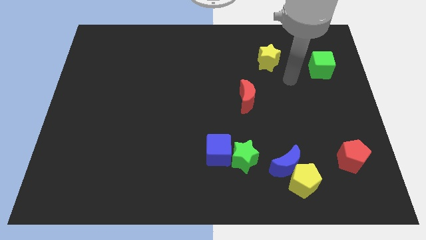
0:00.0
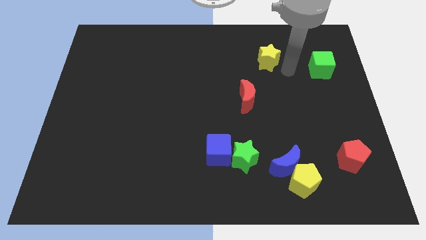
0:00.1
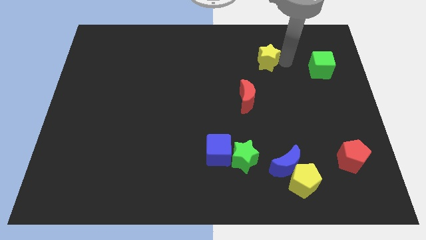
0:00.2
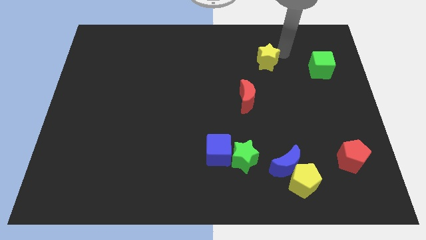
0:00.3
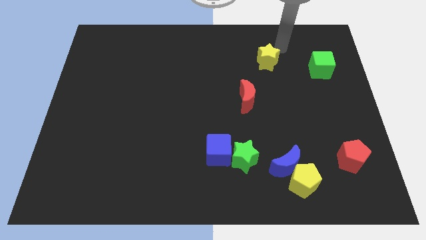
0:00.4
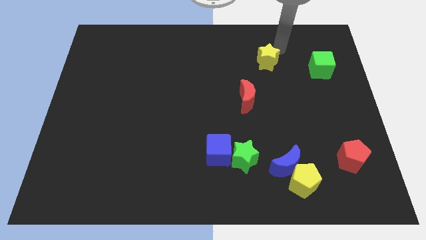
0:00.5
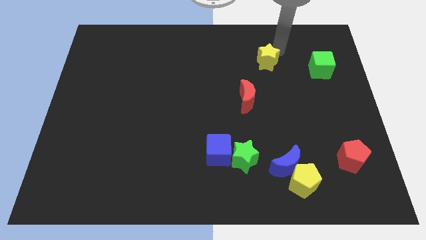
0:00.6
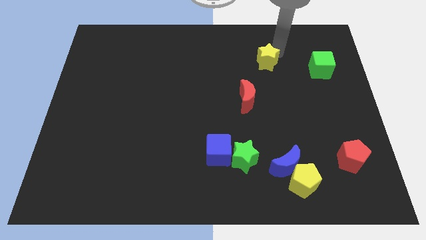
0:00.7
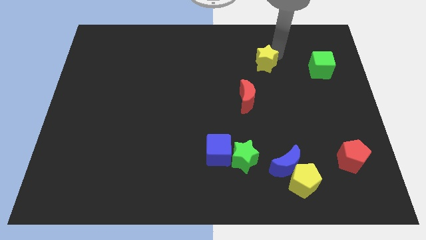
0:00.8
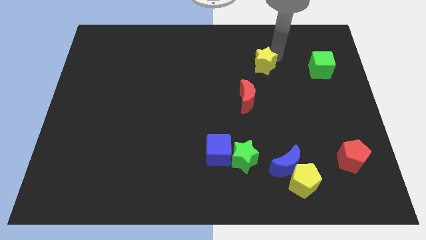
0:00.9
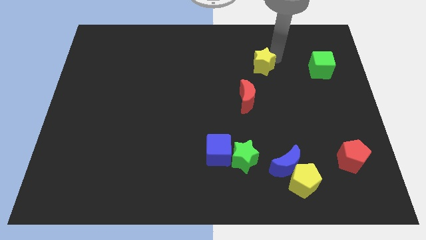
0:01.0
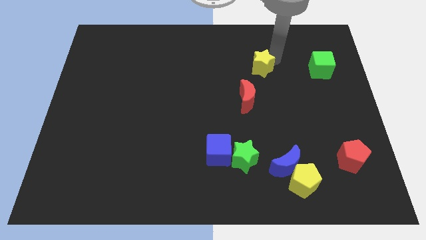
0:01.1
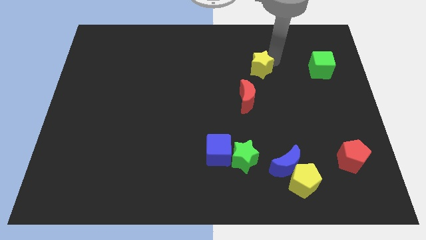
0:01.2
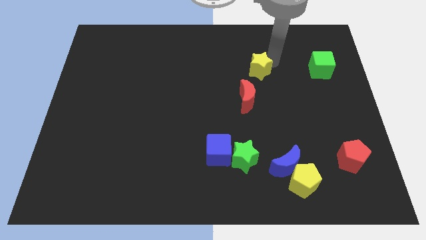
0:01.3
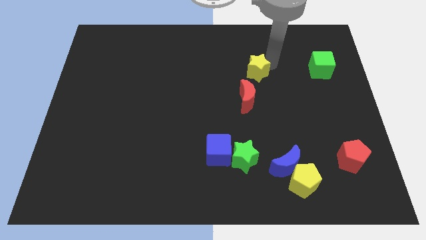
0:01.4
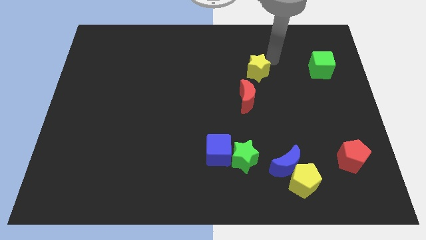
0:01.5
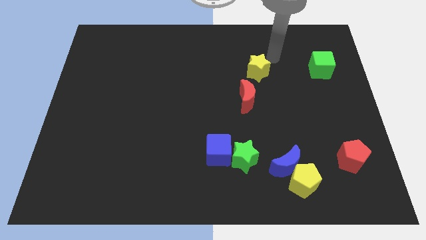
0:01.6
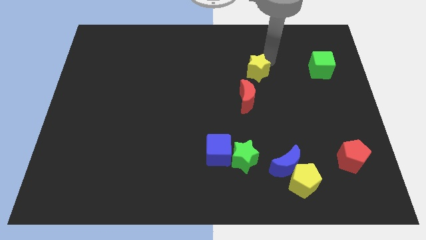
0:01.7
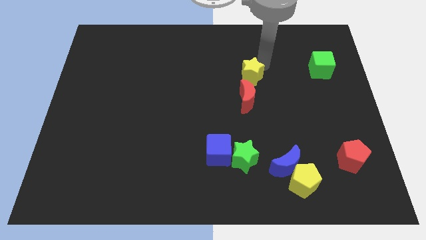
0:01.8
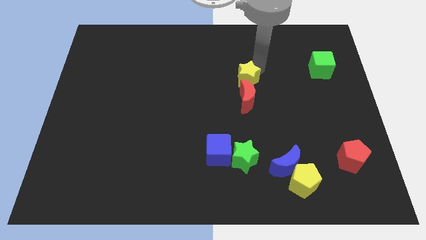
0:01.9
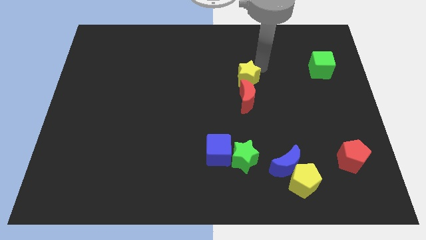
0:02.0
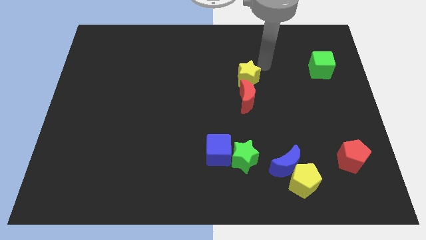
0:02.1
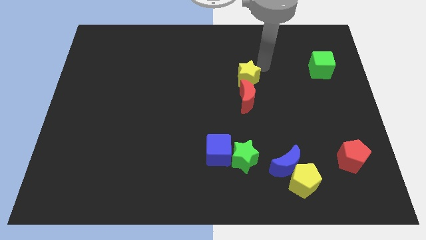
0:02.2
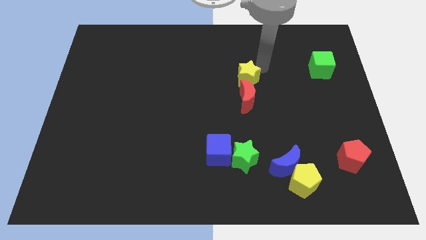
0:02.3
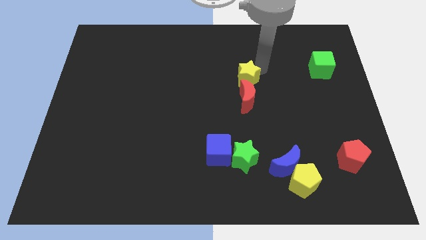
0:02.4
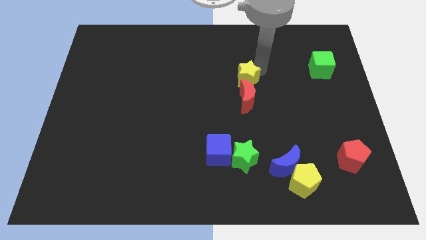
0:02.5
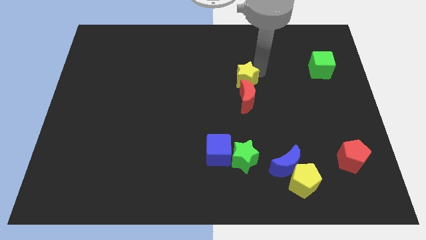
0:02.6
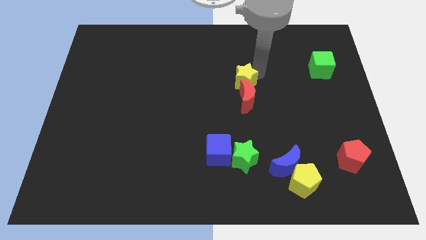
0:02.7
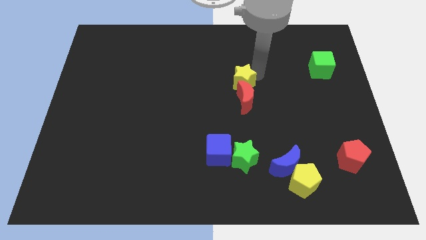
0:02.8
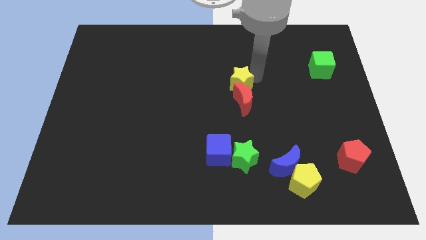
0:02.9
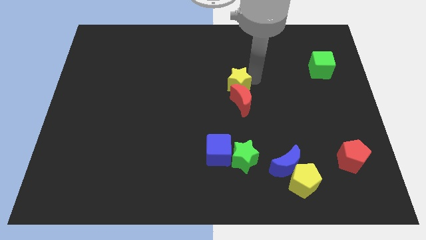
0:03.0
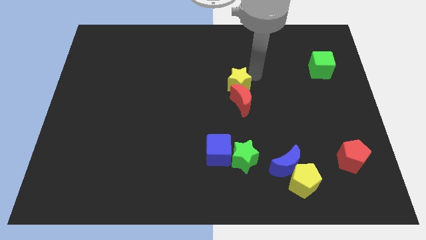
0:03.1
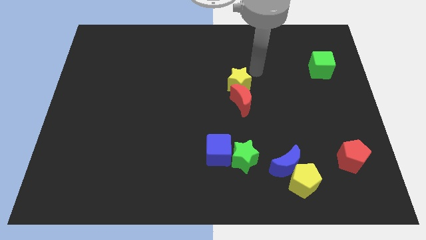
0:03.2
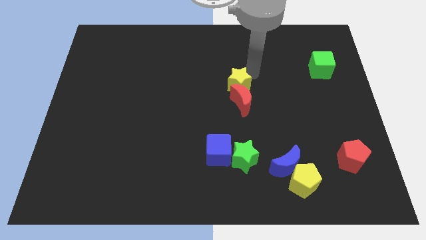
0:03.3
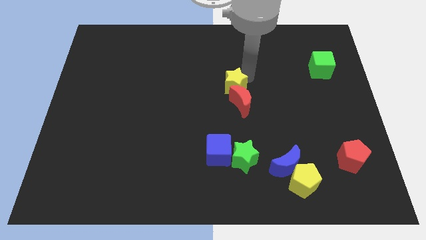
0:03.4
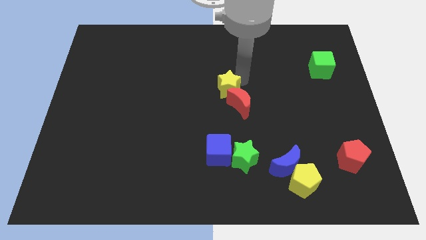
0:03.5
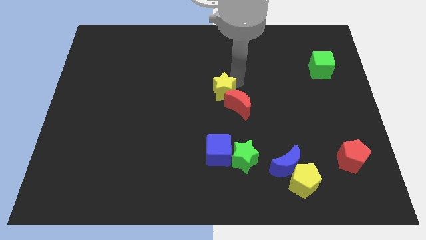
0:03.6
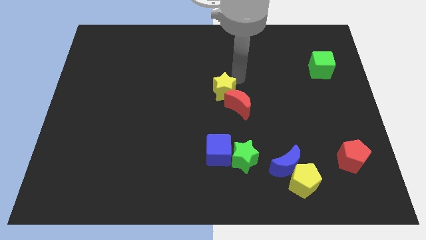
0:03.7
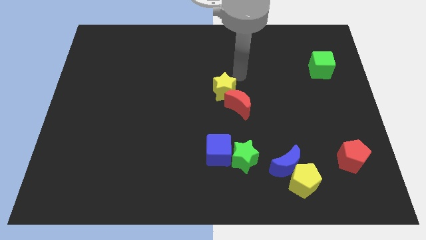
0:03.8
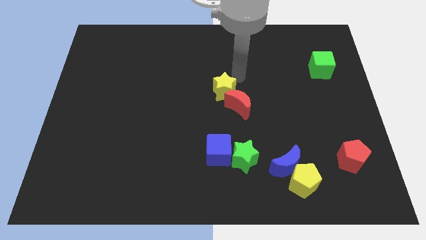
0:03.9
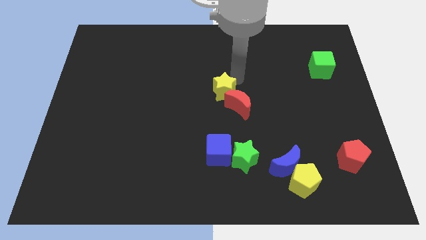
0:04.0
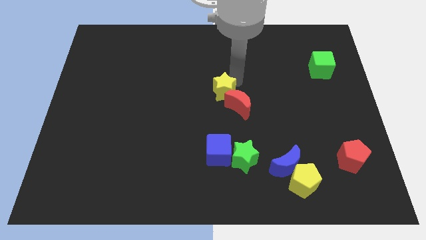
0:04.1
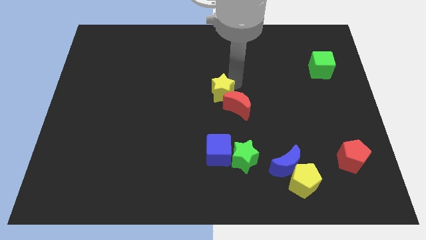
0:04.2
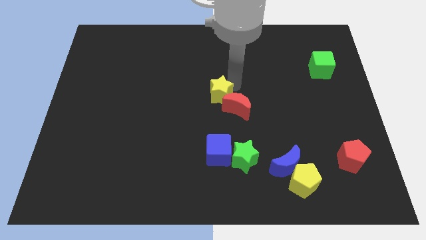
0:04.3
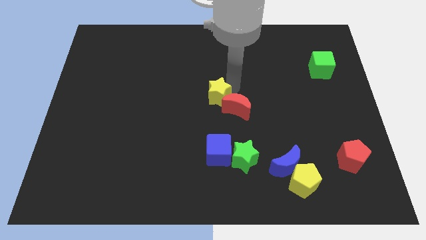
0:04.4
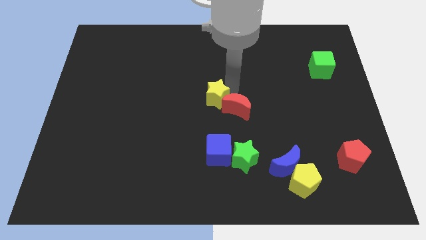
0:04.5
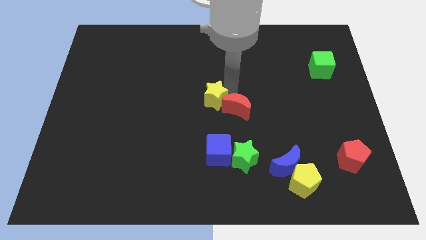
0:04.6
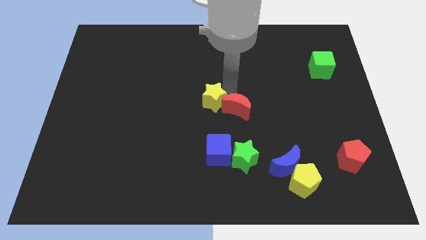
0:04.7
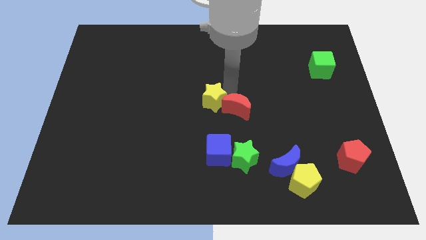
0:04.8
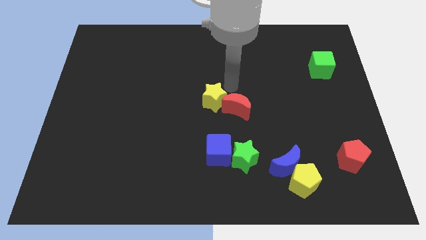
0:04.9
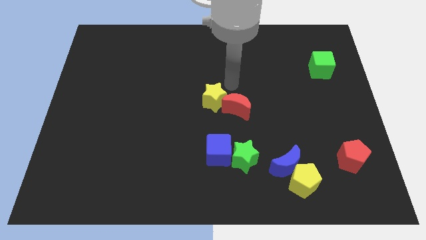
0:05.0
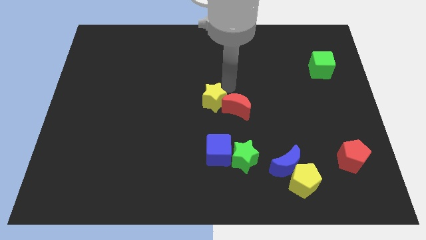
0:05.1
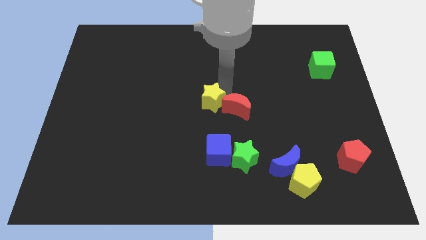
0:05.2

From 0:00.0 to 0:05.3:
move the yellow star downwards and left

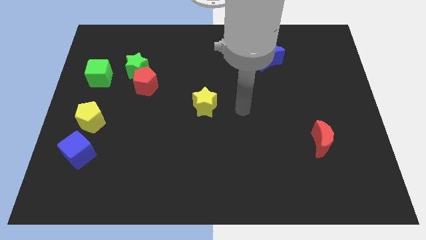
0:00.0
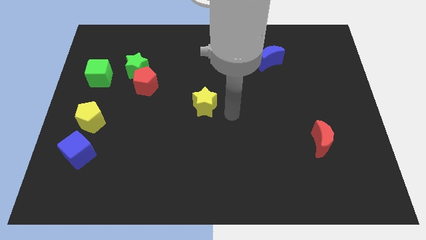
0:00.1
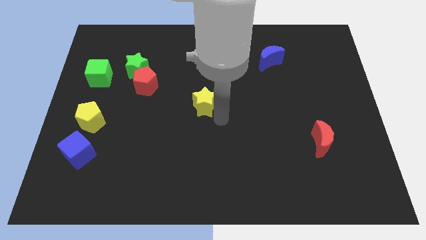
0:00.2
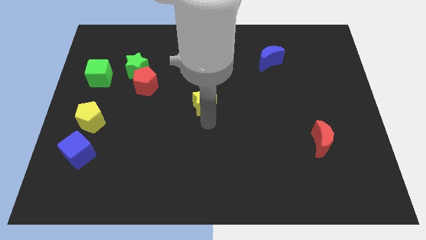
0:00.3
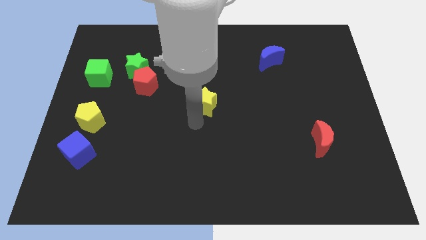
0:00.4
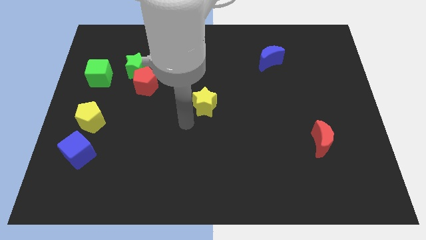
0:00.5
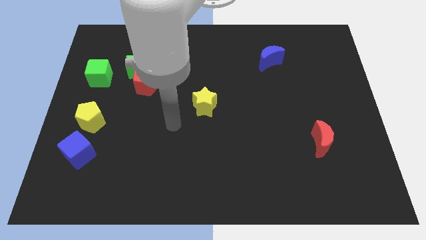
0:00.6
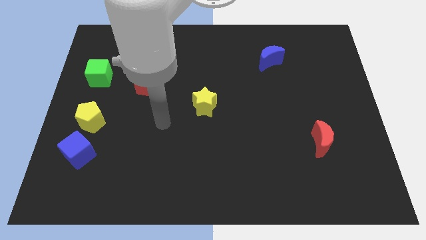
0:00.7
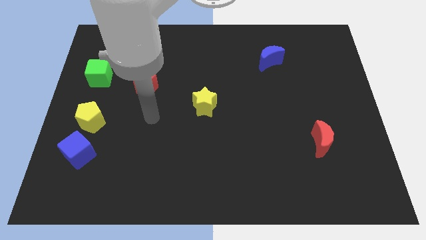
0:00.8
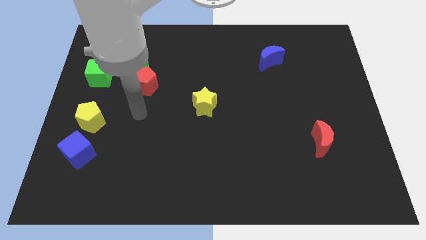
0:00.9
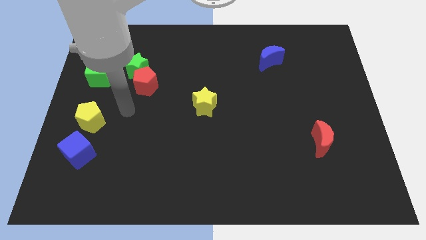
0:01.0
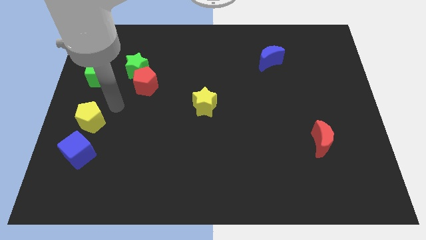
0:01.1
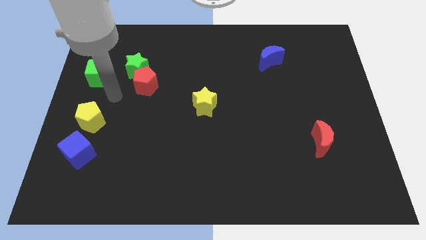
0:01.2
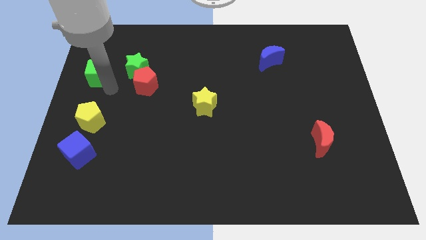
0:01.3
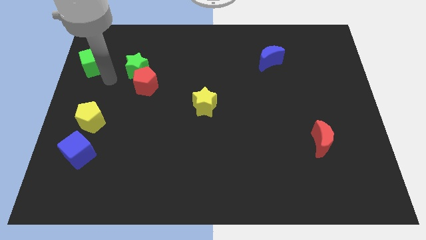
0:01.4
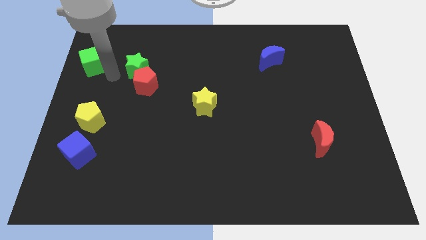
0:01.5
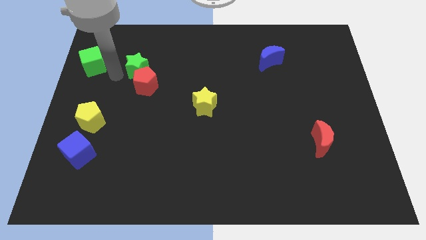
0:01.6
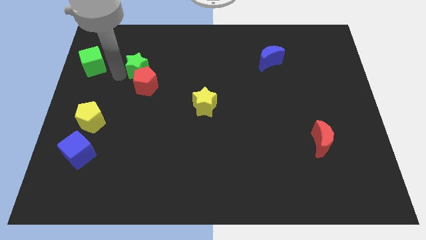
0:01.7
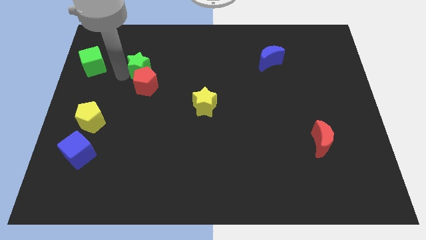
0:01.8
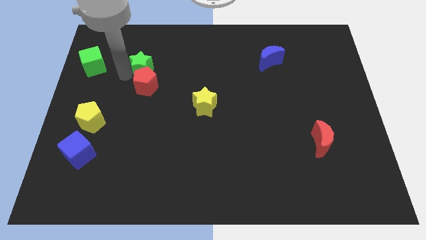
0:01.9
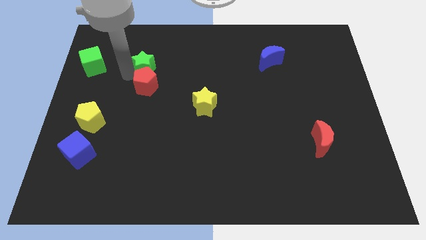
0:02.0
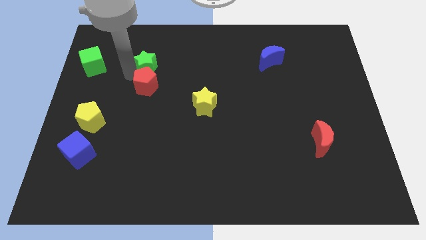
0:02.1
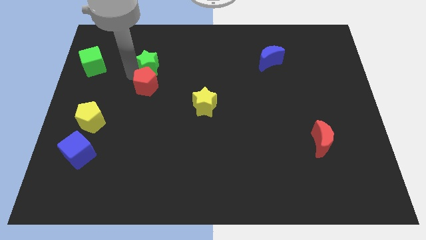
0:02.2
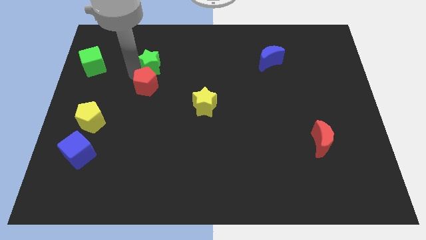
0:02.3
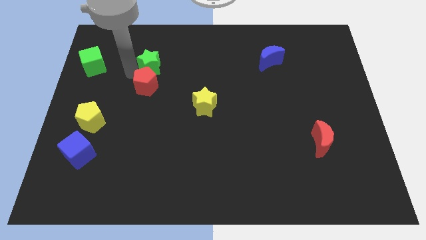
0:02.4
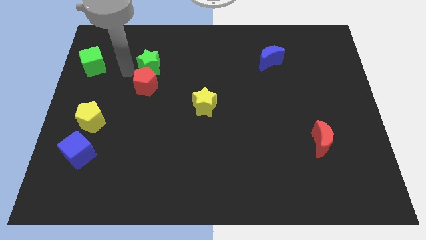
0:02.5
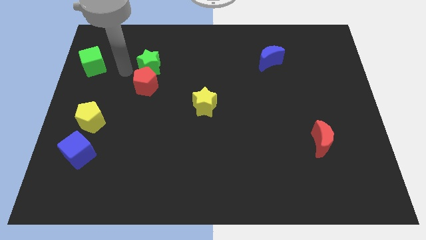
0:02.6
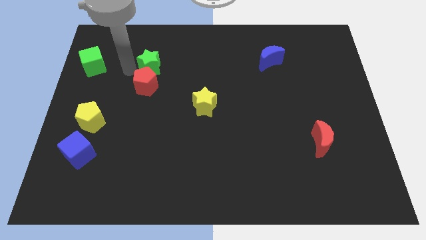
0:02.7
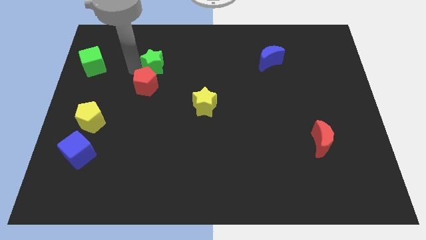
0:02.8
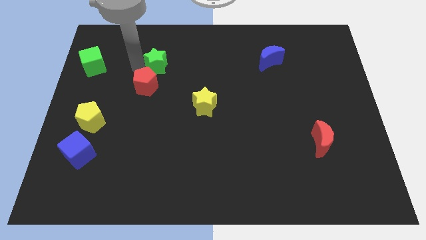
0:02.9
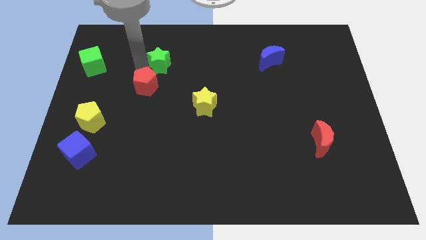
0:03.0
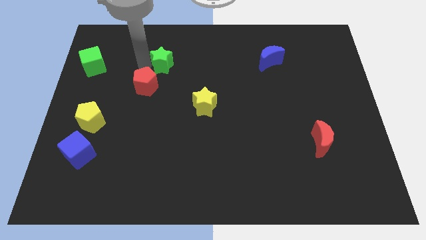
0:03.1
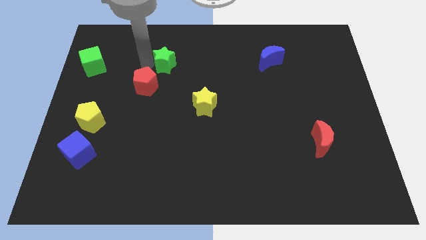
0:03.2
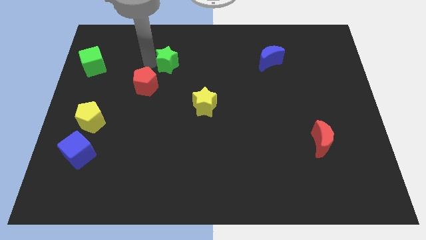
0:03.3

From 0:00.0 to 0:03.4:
move the green star slightly right
